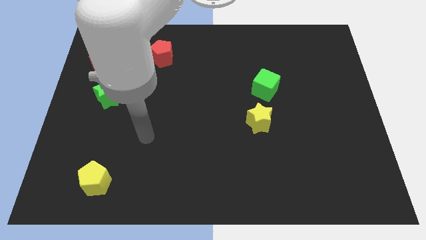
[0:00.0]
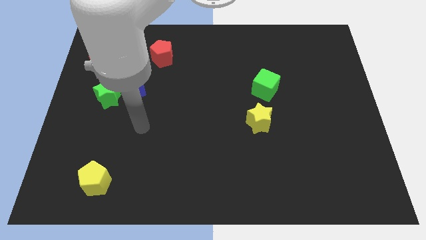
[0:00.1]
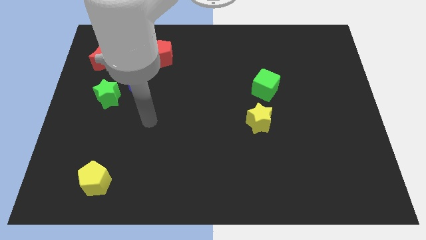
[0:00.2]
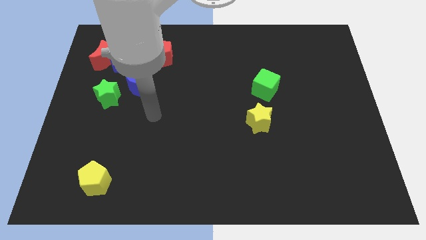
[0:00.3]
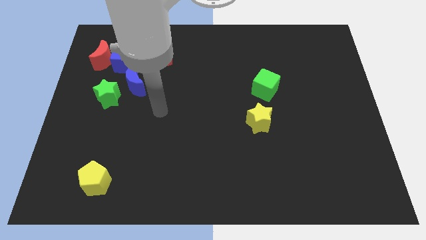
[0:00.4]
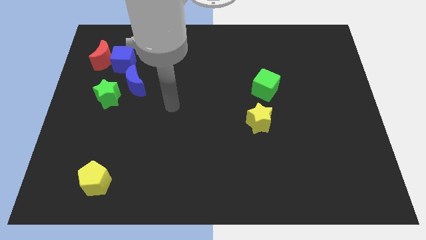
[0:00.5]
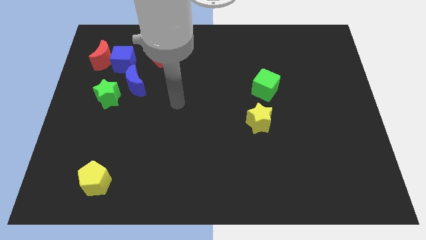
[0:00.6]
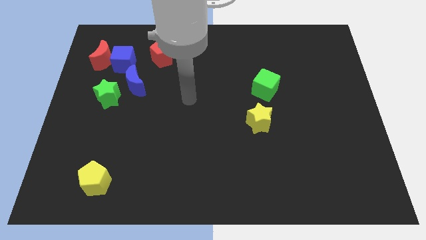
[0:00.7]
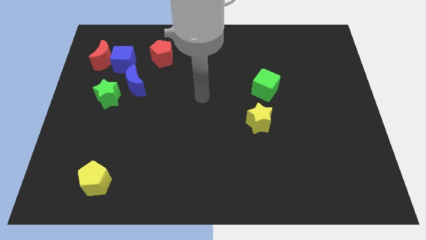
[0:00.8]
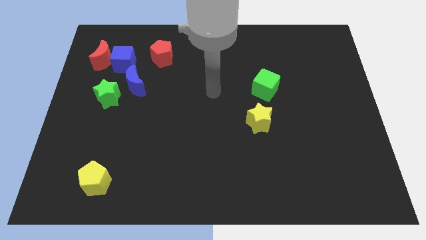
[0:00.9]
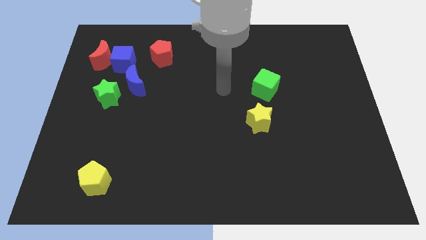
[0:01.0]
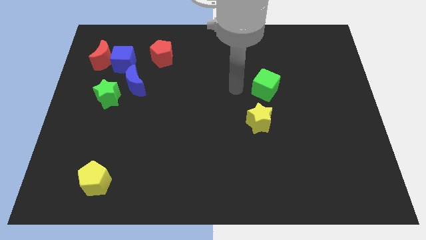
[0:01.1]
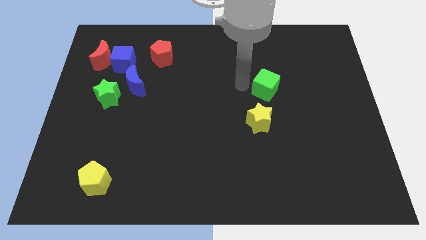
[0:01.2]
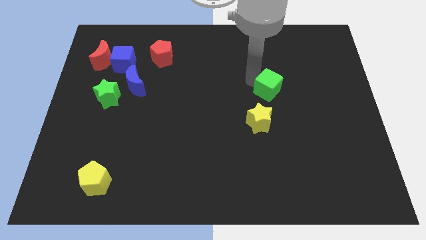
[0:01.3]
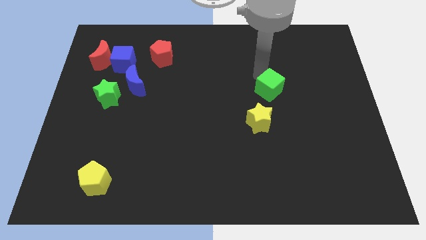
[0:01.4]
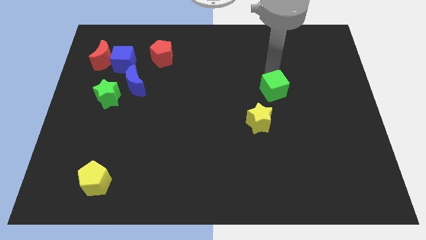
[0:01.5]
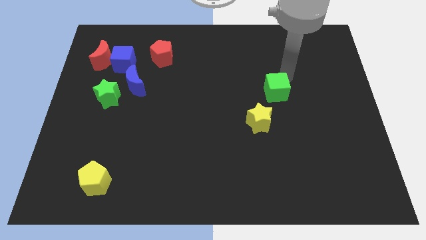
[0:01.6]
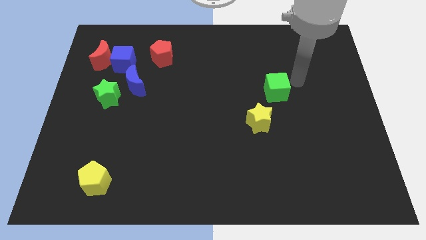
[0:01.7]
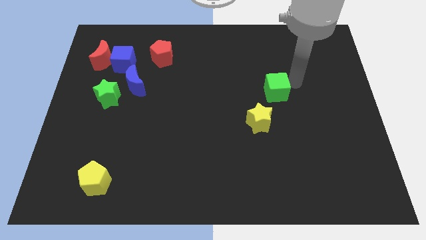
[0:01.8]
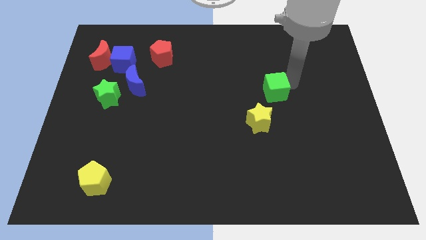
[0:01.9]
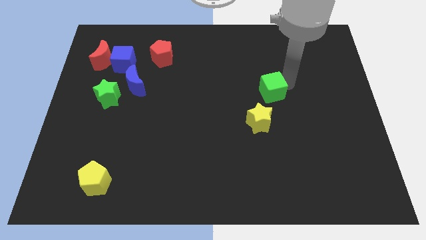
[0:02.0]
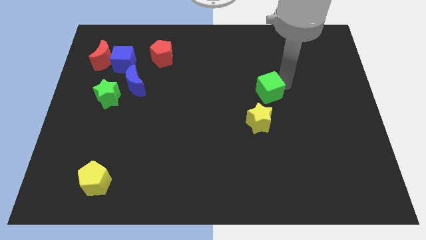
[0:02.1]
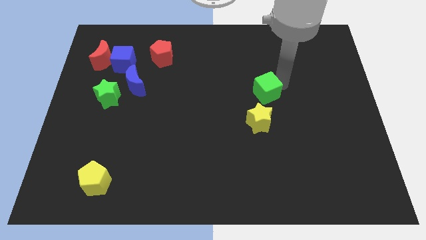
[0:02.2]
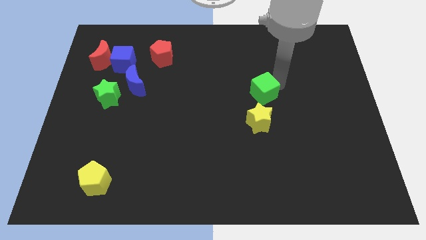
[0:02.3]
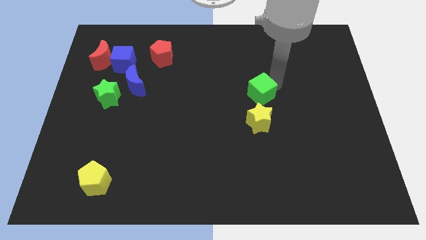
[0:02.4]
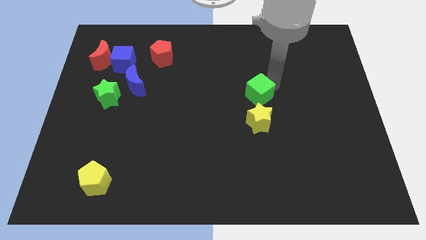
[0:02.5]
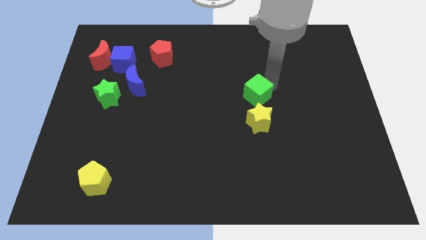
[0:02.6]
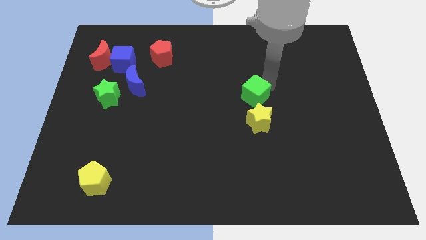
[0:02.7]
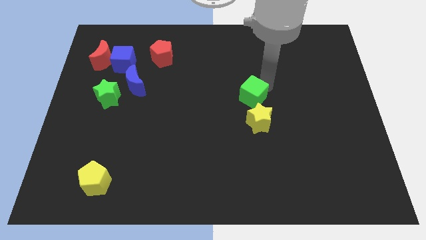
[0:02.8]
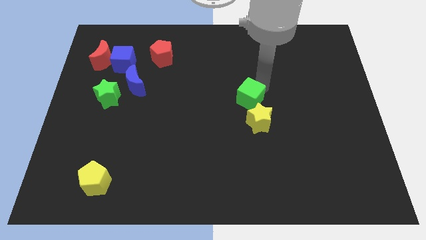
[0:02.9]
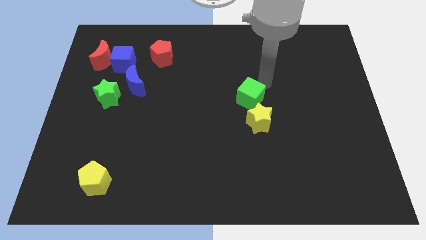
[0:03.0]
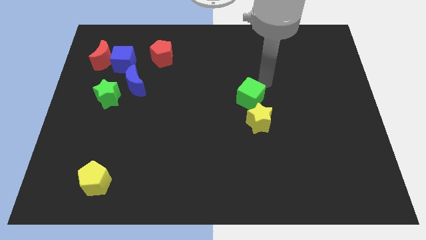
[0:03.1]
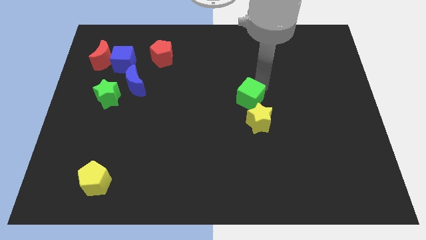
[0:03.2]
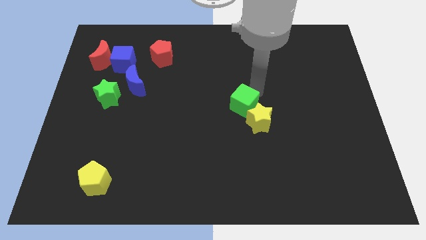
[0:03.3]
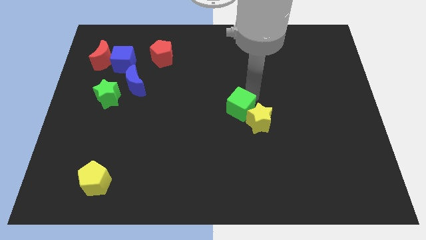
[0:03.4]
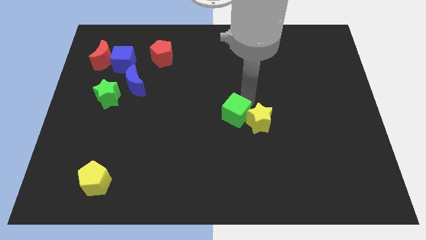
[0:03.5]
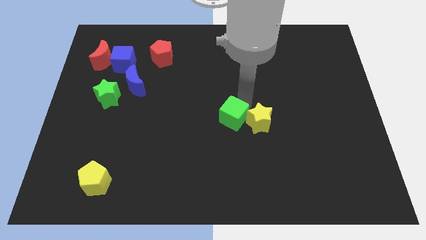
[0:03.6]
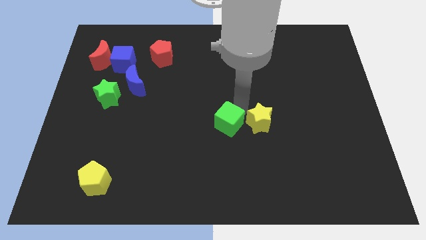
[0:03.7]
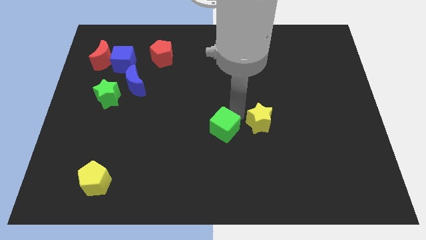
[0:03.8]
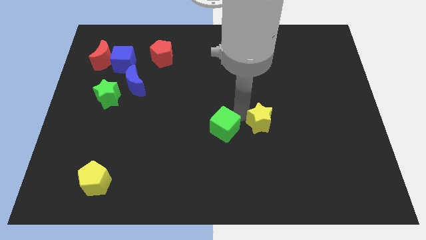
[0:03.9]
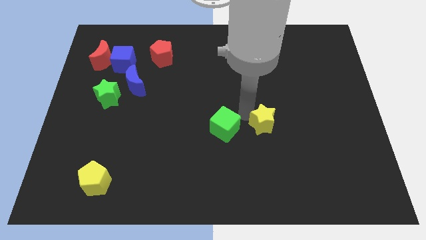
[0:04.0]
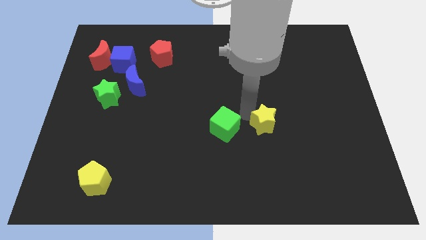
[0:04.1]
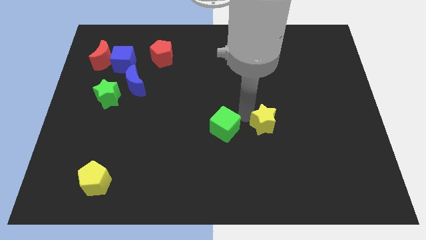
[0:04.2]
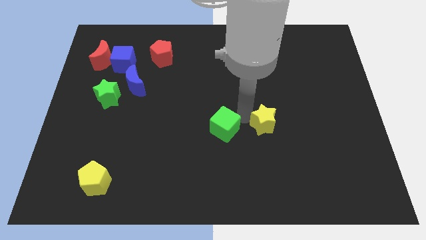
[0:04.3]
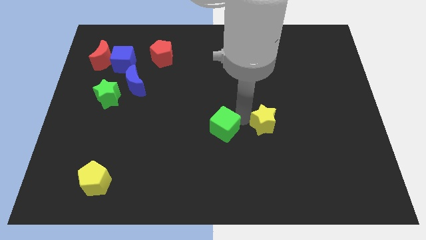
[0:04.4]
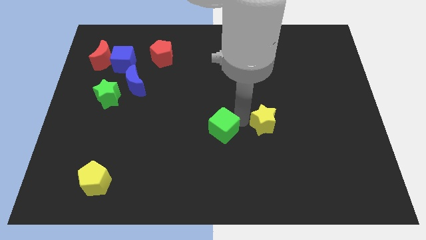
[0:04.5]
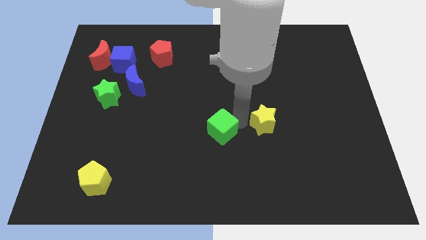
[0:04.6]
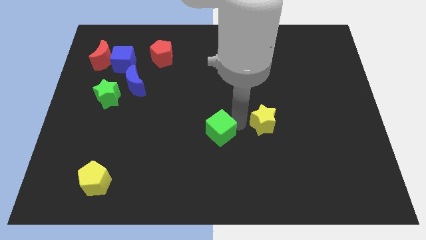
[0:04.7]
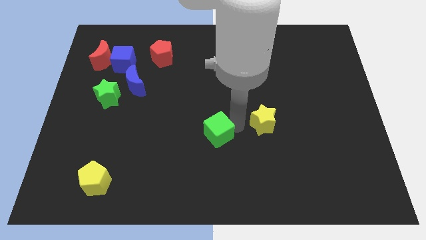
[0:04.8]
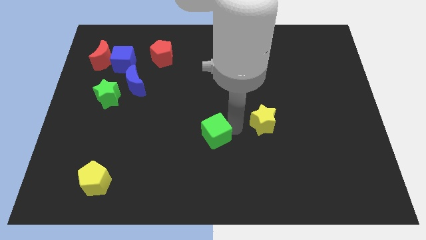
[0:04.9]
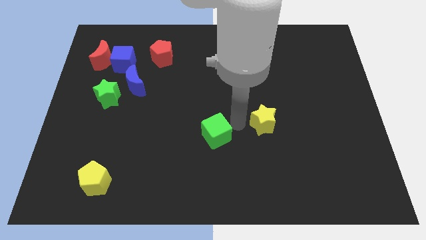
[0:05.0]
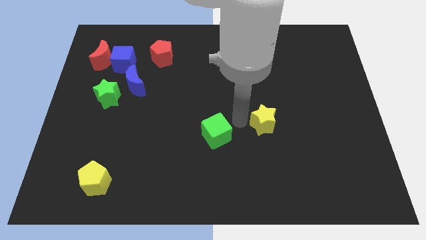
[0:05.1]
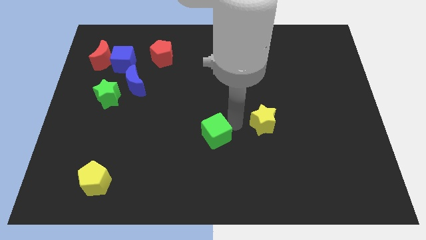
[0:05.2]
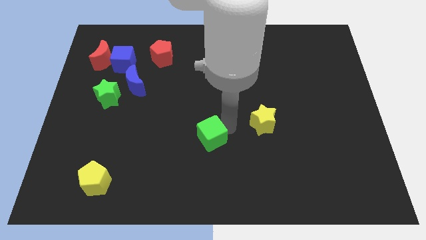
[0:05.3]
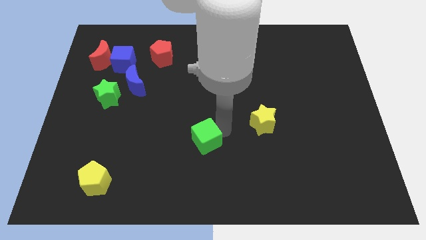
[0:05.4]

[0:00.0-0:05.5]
slide the green cube diagonally downwards and left

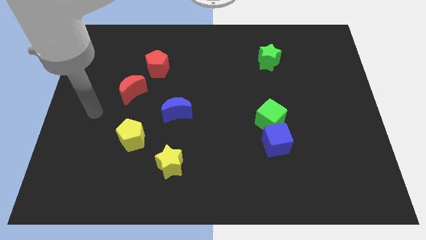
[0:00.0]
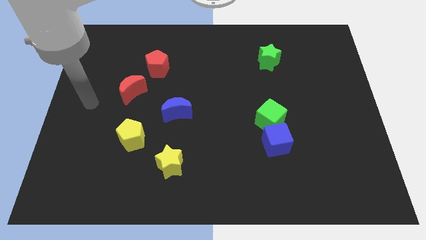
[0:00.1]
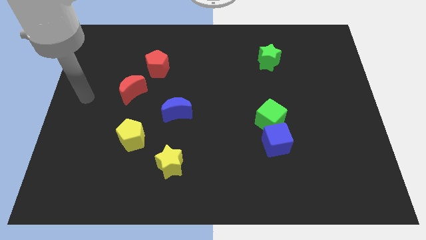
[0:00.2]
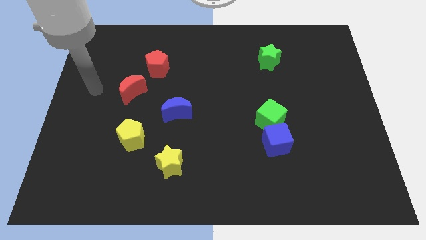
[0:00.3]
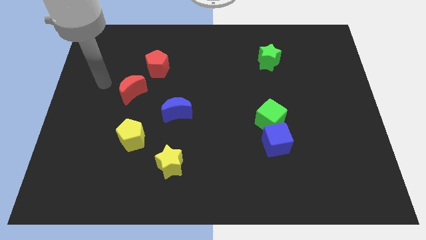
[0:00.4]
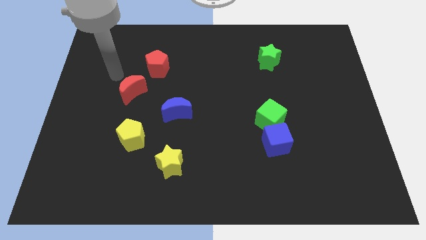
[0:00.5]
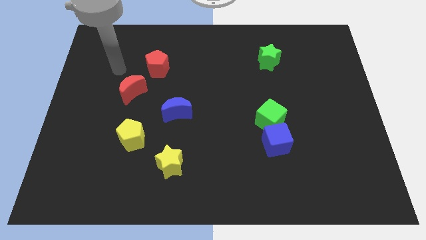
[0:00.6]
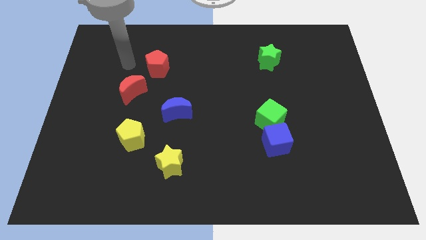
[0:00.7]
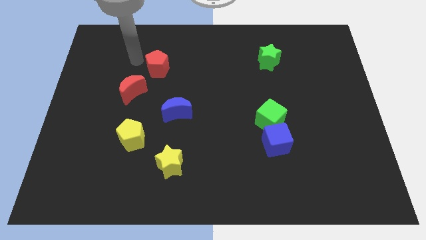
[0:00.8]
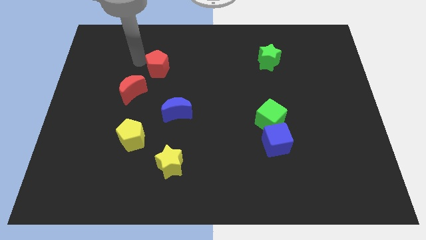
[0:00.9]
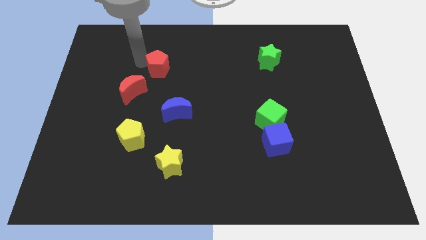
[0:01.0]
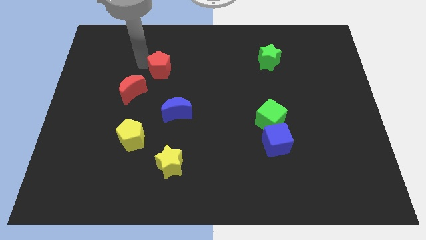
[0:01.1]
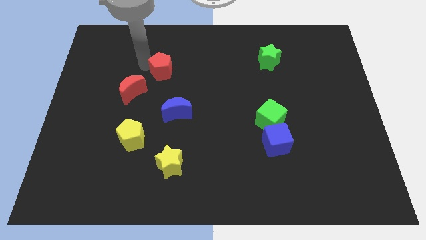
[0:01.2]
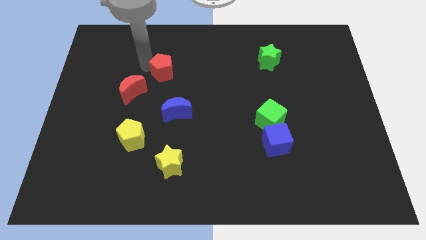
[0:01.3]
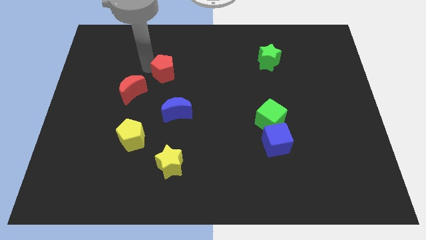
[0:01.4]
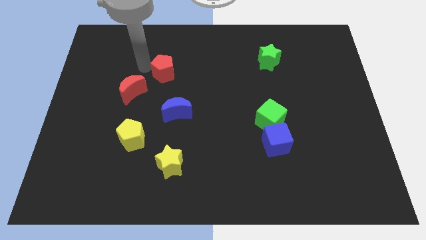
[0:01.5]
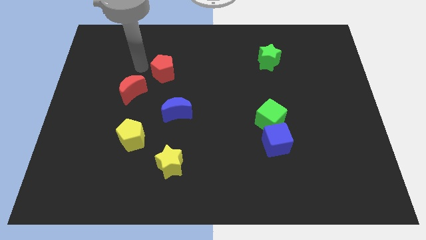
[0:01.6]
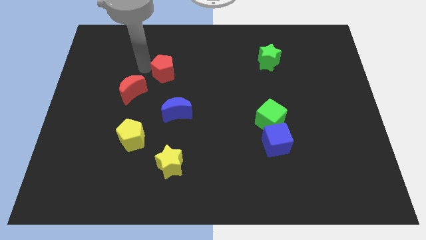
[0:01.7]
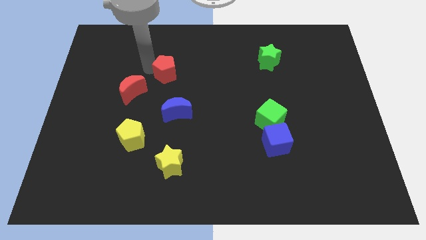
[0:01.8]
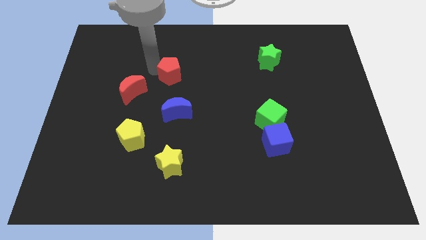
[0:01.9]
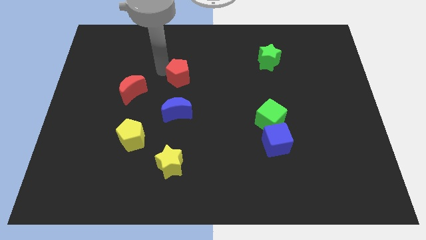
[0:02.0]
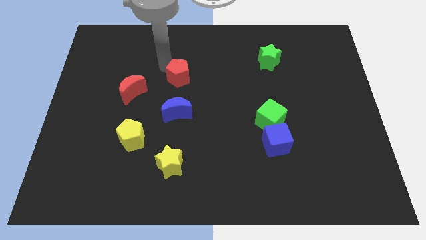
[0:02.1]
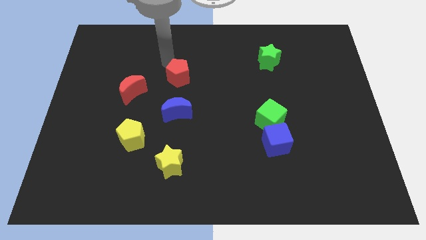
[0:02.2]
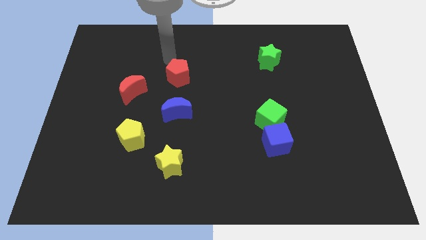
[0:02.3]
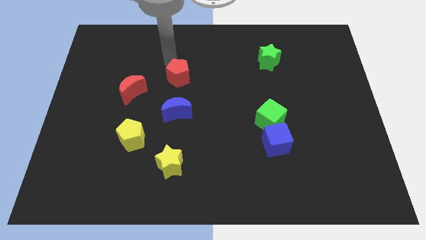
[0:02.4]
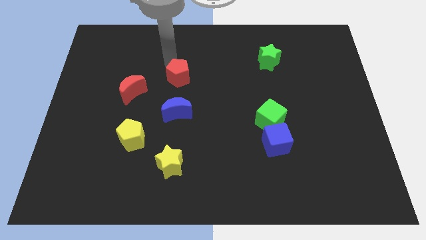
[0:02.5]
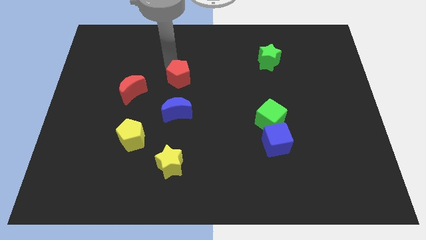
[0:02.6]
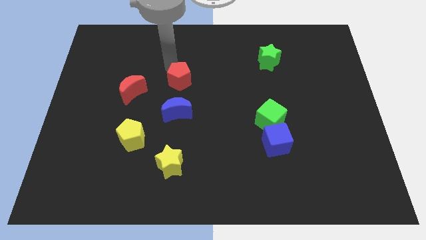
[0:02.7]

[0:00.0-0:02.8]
push the red pentagon somewhat down and right diagonally
